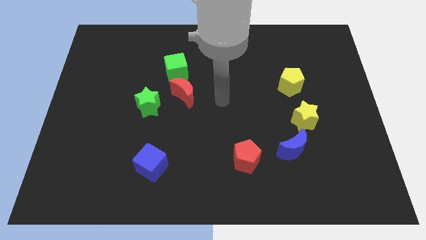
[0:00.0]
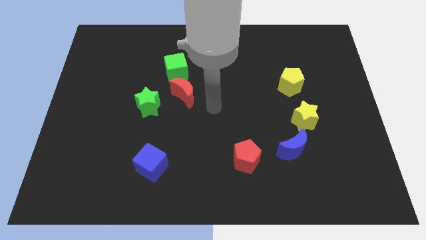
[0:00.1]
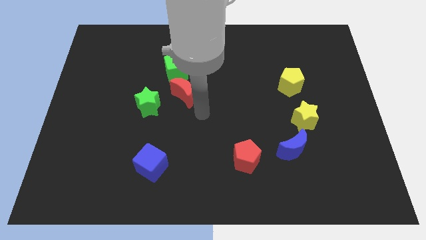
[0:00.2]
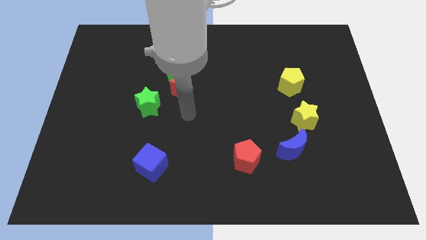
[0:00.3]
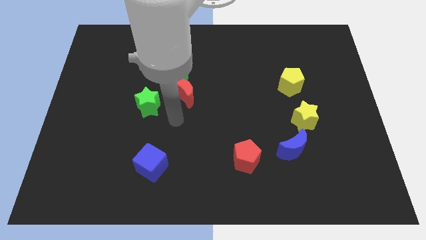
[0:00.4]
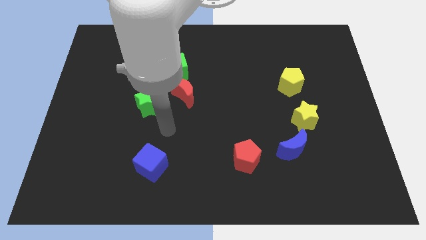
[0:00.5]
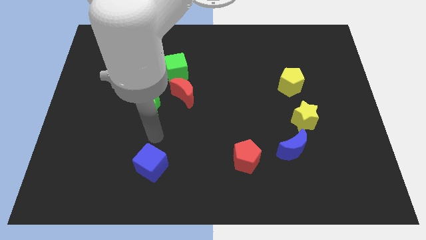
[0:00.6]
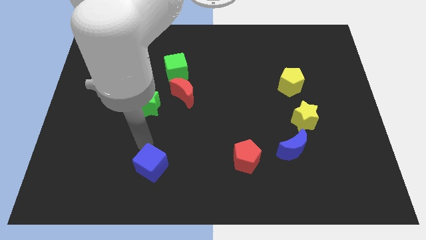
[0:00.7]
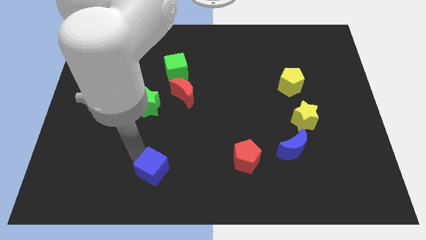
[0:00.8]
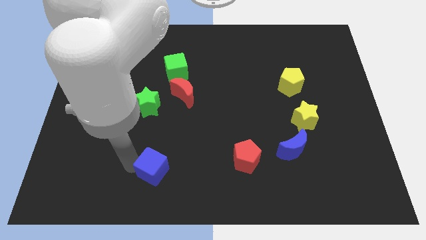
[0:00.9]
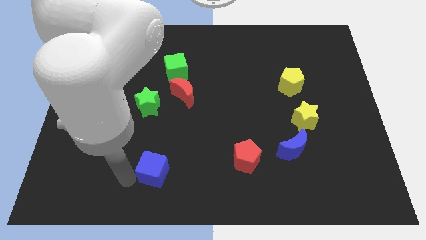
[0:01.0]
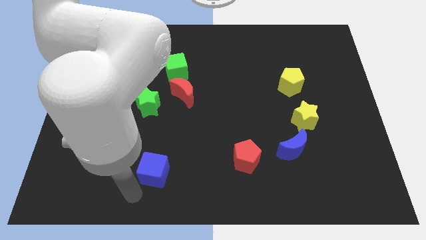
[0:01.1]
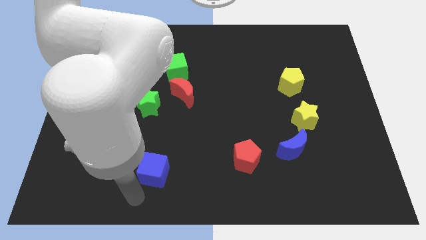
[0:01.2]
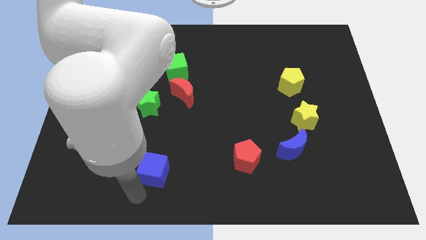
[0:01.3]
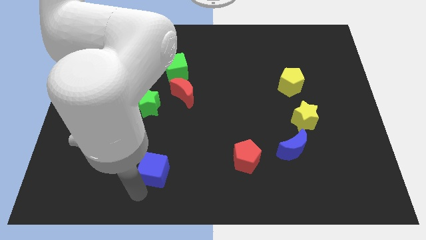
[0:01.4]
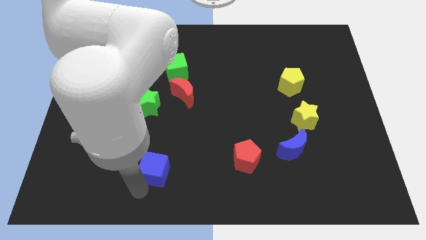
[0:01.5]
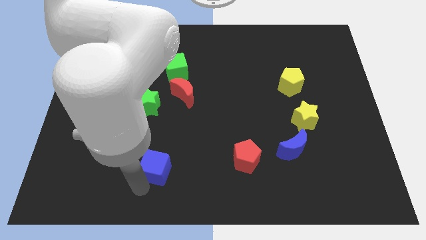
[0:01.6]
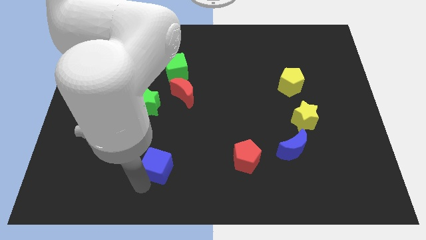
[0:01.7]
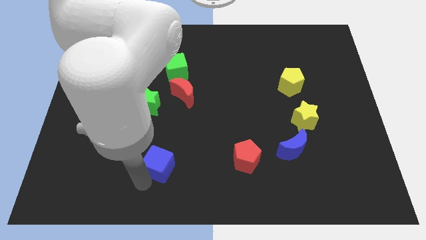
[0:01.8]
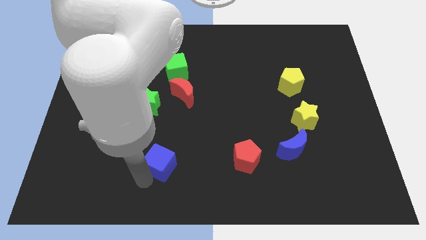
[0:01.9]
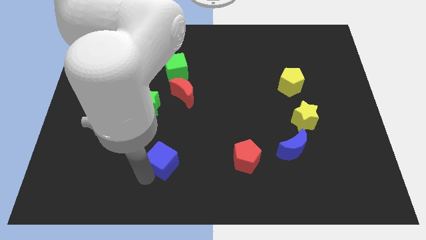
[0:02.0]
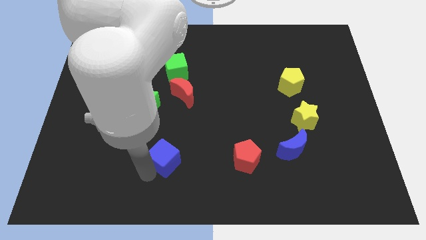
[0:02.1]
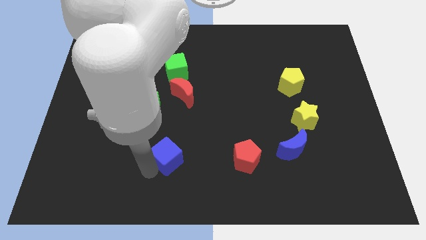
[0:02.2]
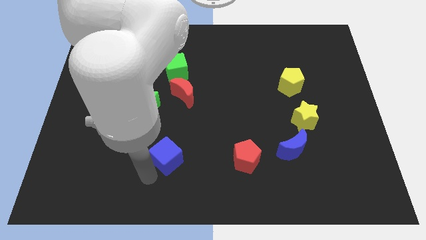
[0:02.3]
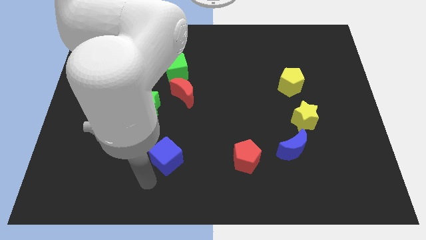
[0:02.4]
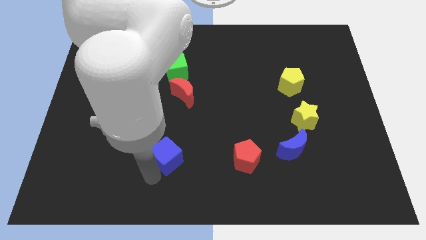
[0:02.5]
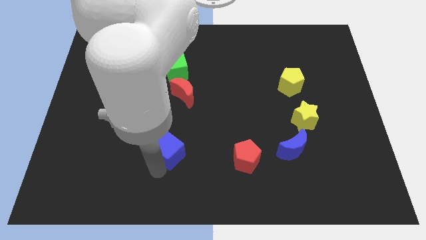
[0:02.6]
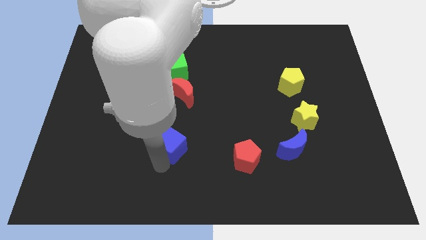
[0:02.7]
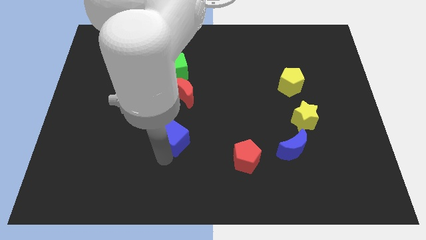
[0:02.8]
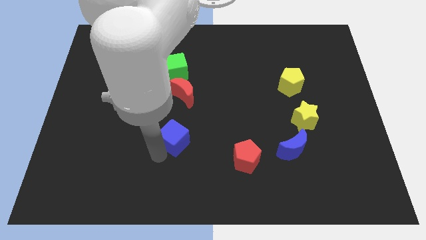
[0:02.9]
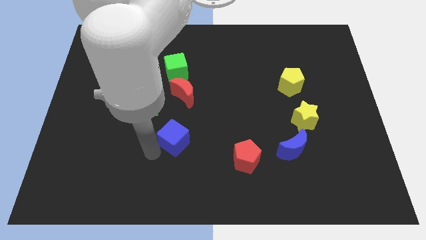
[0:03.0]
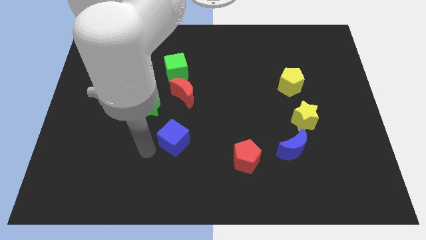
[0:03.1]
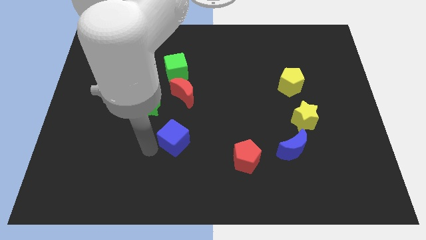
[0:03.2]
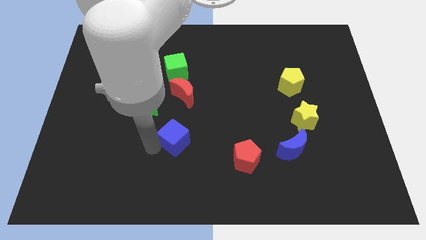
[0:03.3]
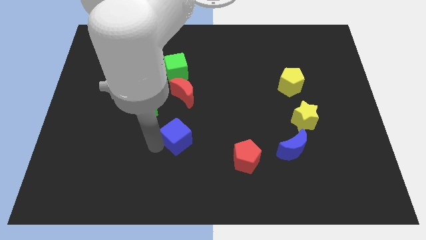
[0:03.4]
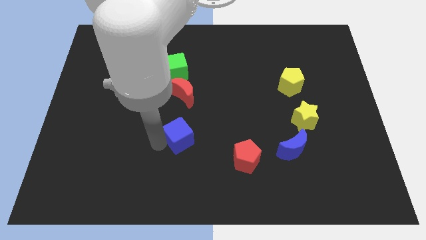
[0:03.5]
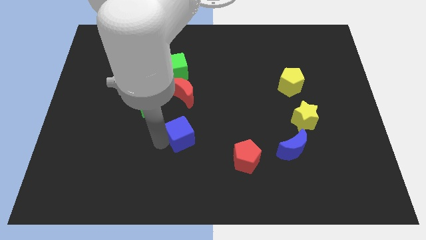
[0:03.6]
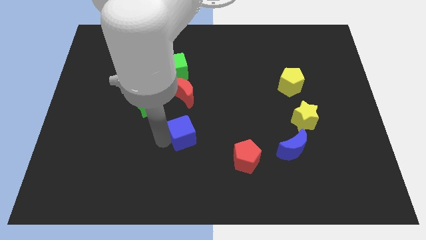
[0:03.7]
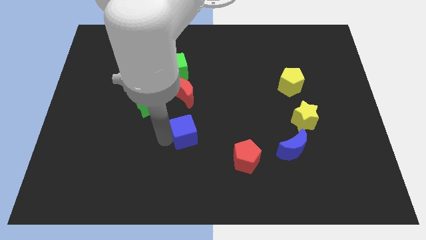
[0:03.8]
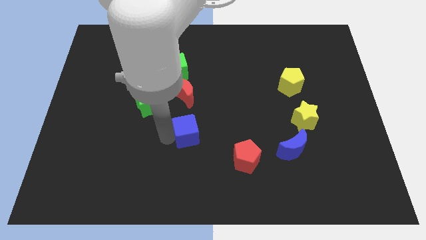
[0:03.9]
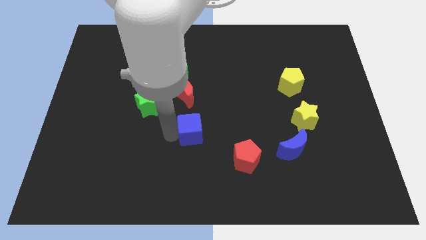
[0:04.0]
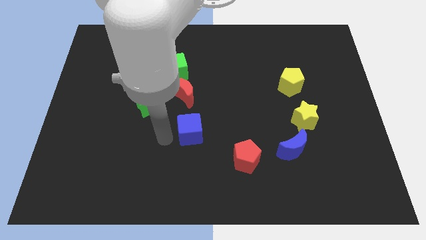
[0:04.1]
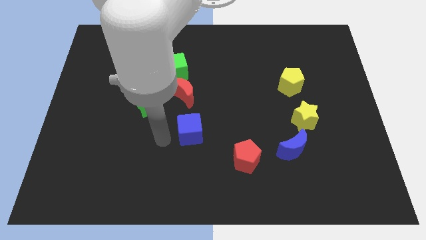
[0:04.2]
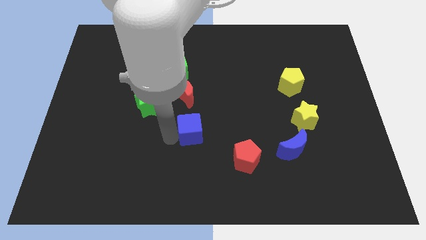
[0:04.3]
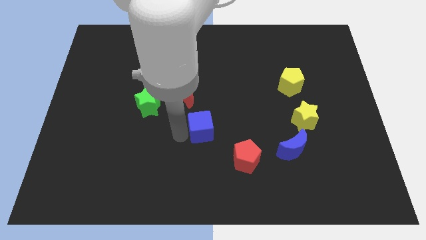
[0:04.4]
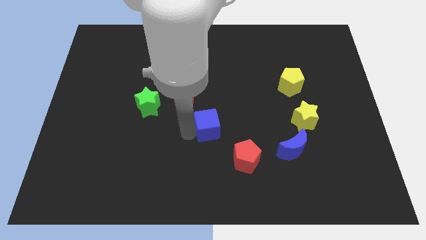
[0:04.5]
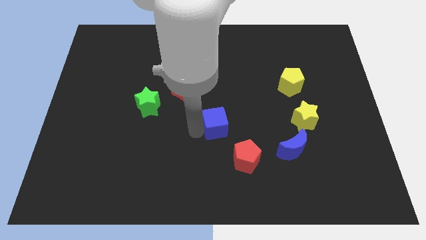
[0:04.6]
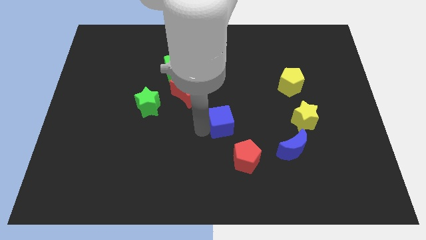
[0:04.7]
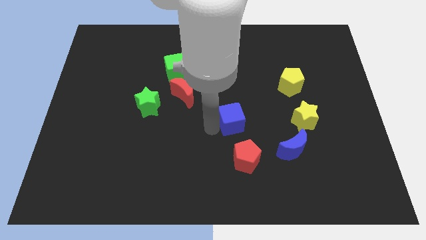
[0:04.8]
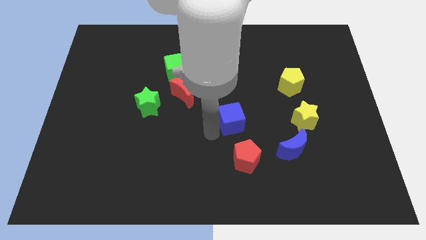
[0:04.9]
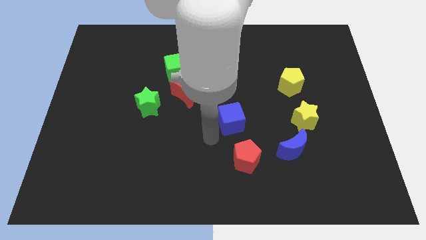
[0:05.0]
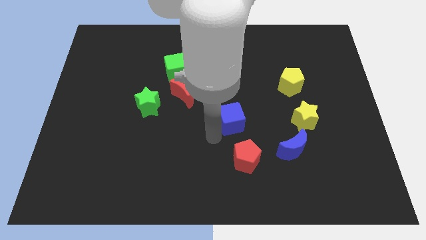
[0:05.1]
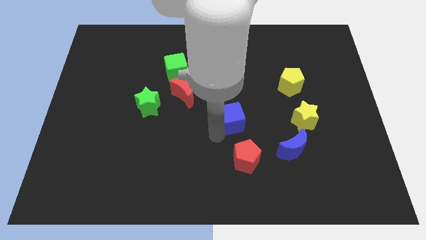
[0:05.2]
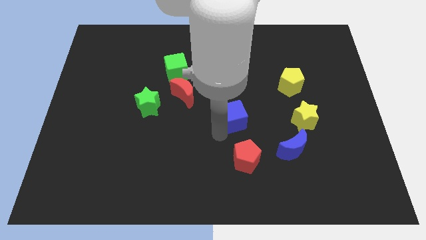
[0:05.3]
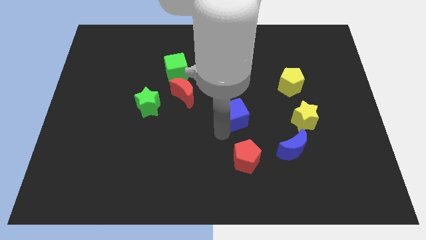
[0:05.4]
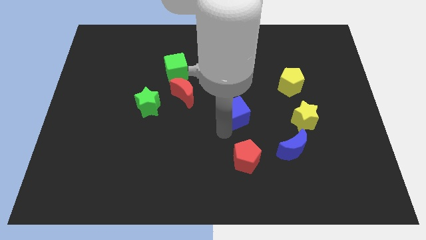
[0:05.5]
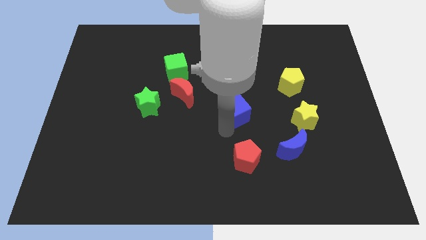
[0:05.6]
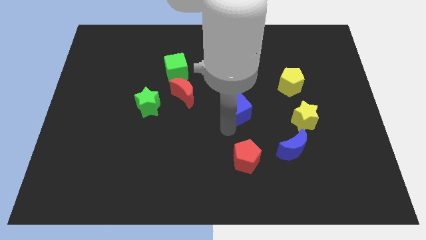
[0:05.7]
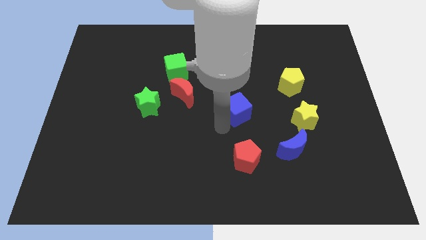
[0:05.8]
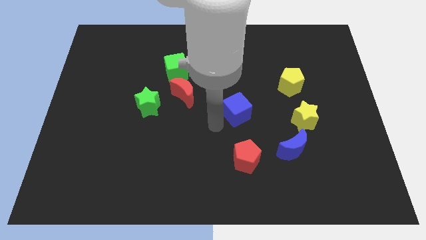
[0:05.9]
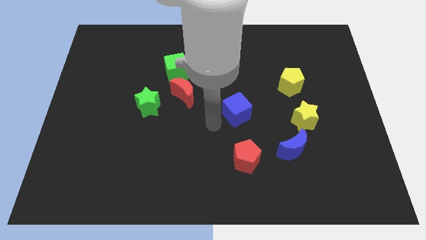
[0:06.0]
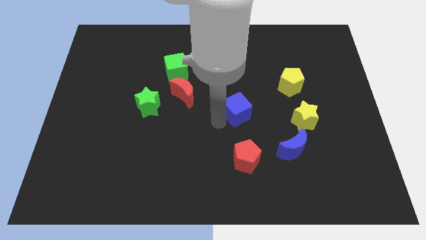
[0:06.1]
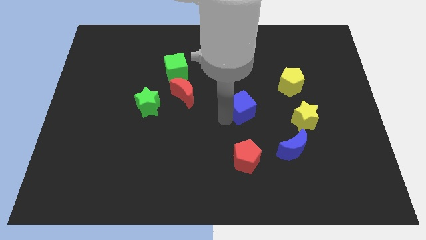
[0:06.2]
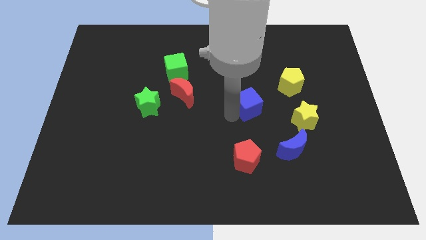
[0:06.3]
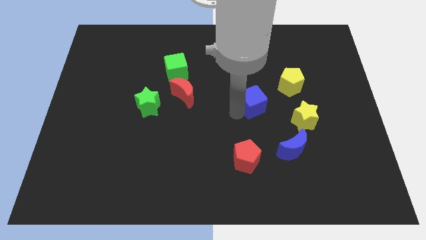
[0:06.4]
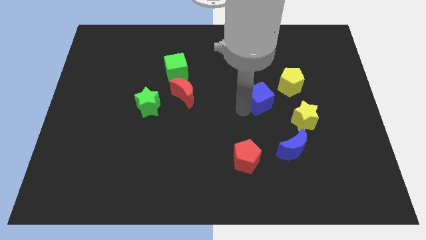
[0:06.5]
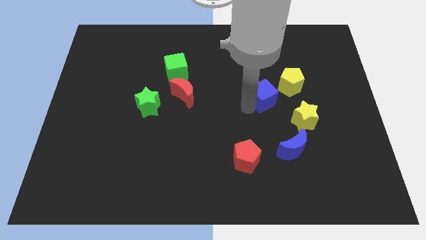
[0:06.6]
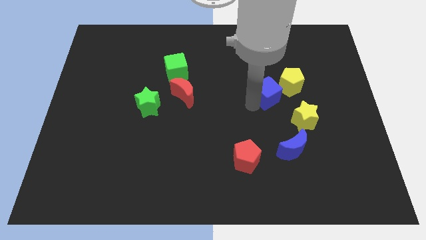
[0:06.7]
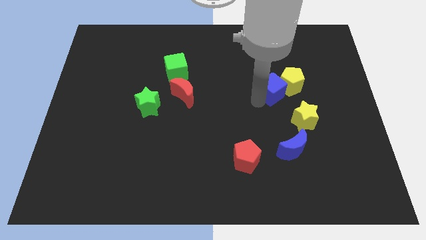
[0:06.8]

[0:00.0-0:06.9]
move the blue cube to the yellow pentagon

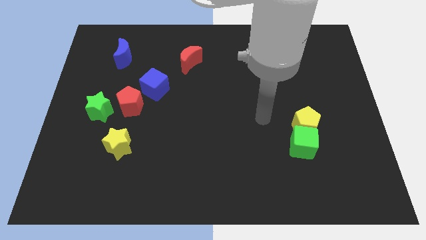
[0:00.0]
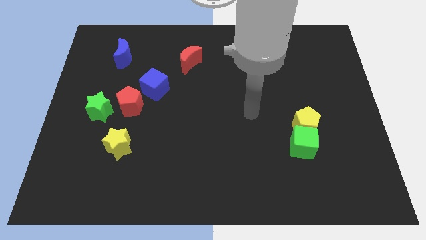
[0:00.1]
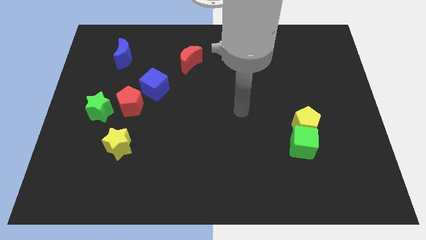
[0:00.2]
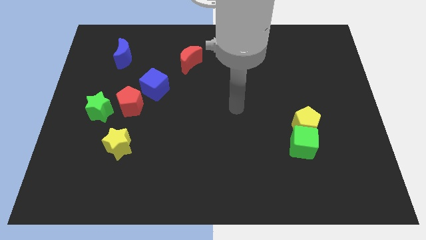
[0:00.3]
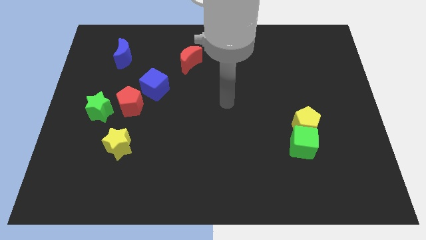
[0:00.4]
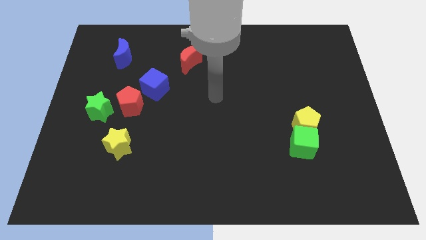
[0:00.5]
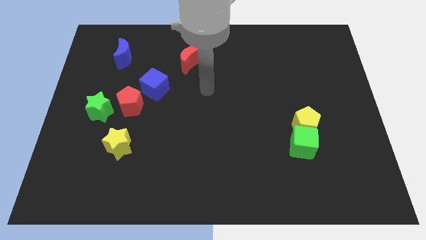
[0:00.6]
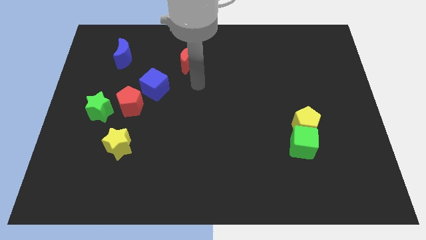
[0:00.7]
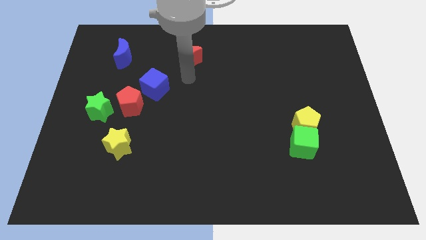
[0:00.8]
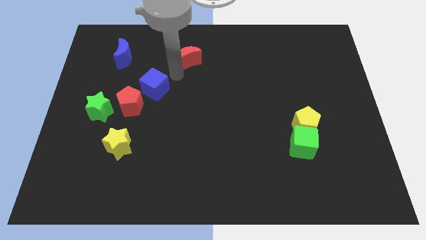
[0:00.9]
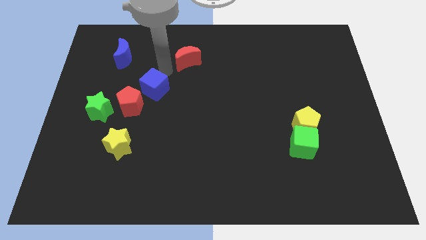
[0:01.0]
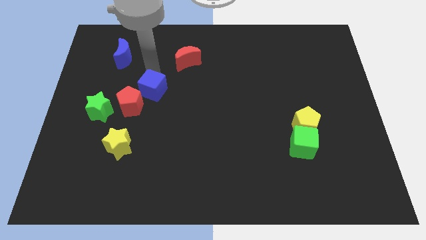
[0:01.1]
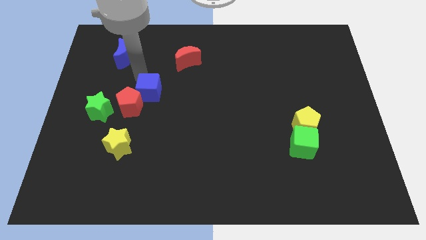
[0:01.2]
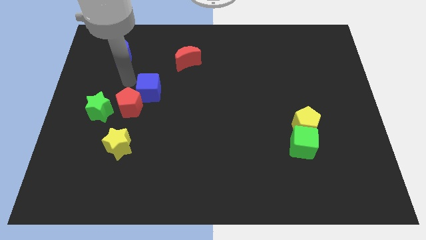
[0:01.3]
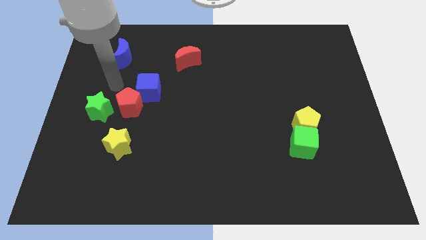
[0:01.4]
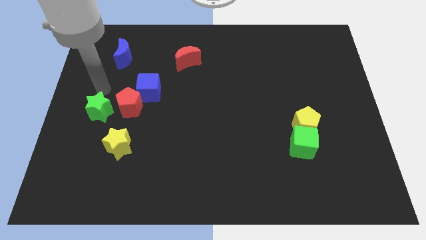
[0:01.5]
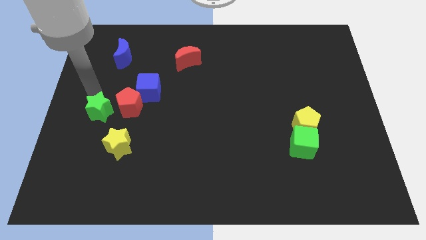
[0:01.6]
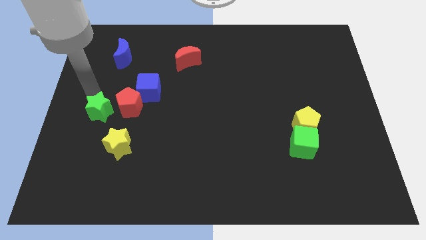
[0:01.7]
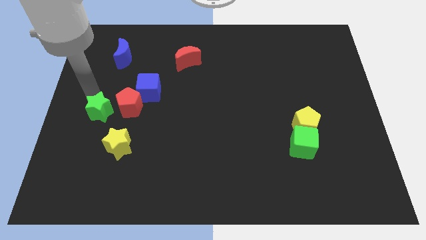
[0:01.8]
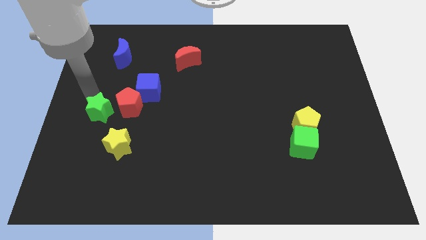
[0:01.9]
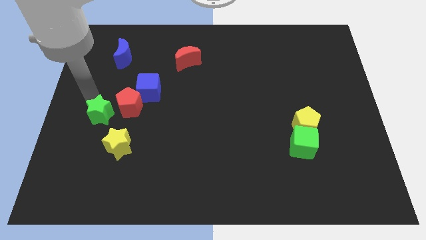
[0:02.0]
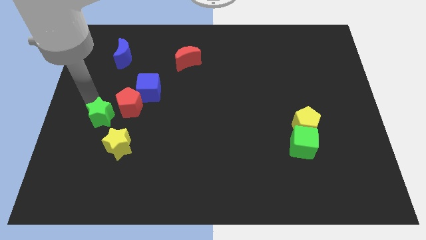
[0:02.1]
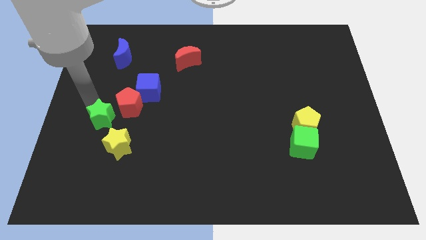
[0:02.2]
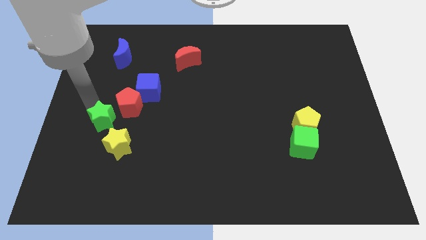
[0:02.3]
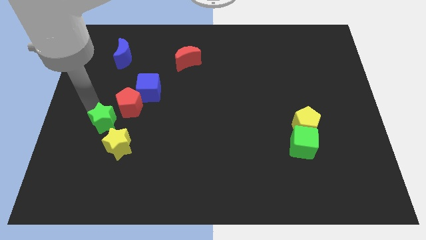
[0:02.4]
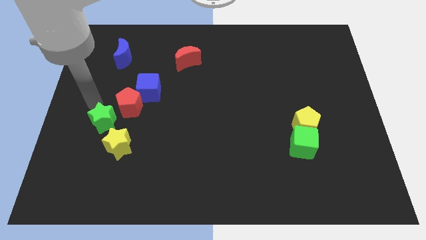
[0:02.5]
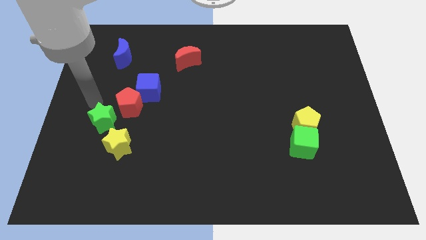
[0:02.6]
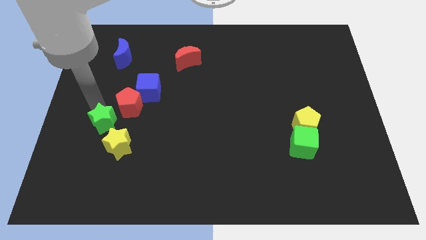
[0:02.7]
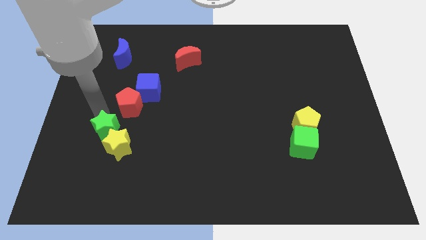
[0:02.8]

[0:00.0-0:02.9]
move the green star close to the yellow star
